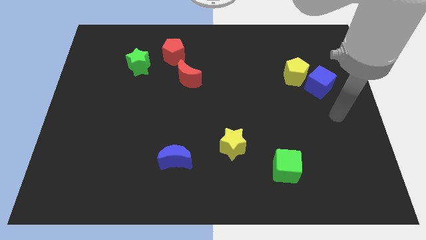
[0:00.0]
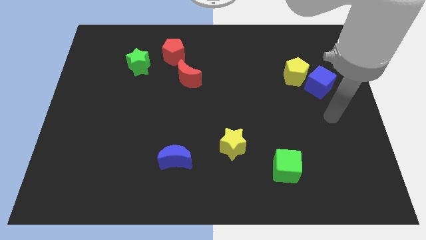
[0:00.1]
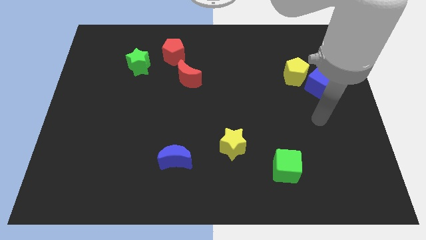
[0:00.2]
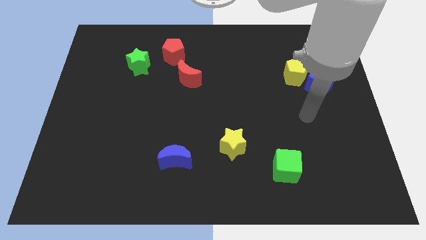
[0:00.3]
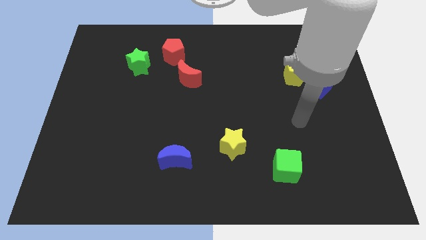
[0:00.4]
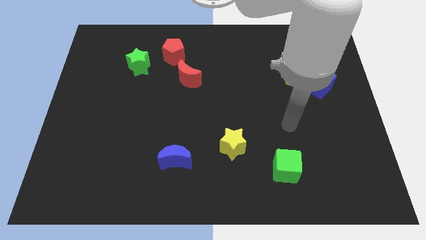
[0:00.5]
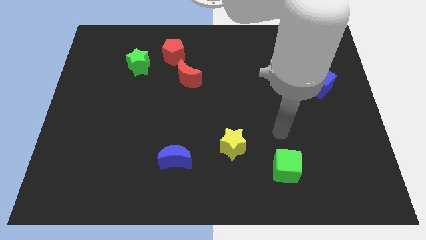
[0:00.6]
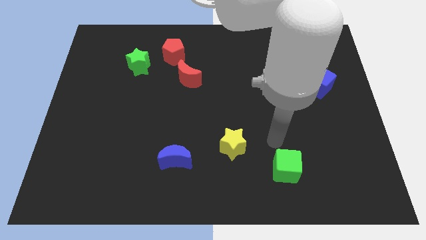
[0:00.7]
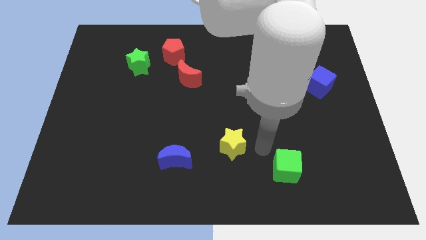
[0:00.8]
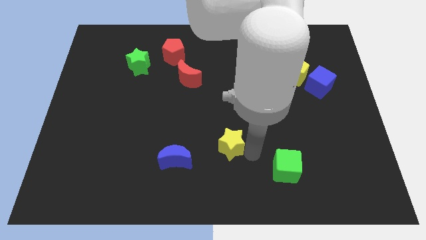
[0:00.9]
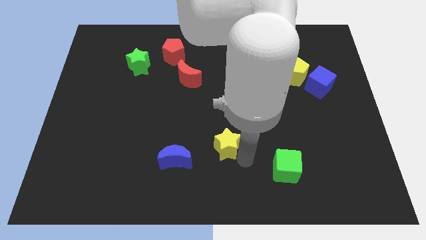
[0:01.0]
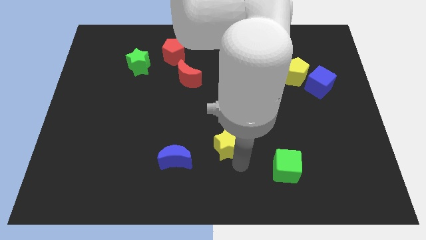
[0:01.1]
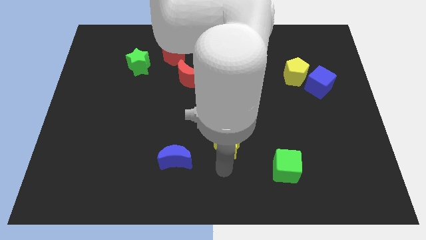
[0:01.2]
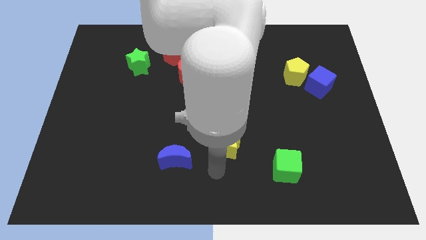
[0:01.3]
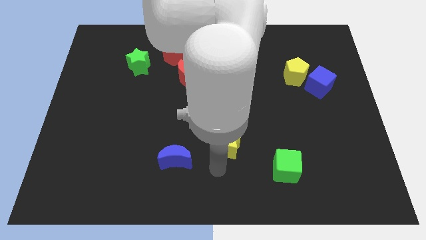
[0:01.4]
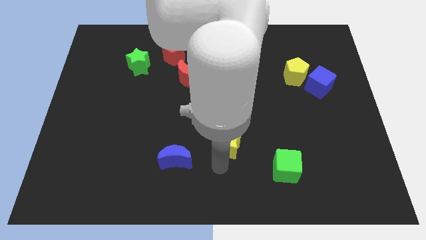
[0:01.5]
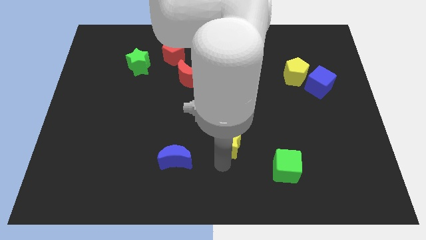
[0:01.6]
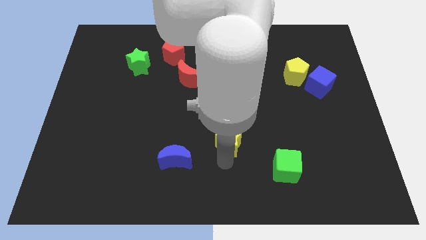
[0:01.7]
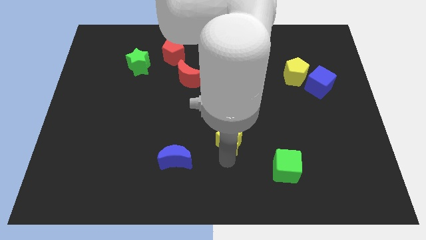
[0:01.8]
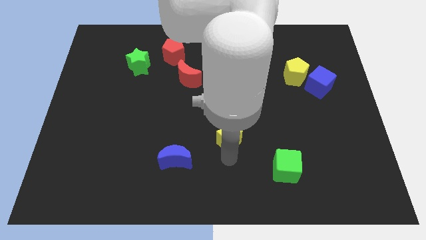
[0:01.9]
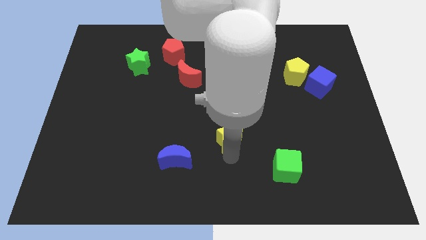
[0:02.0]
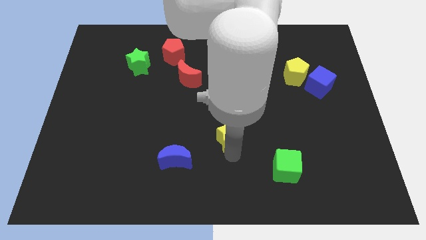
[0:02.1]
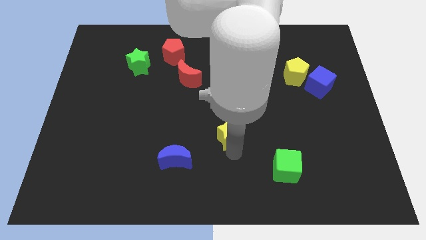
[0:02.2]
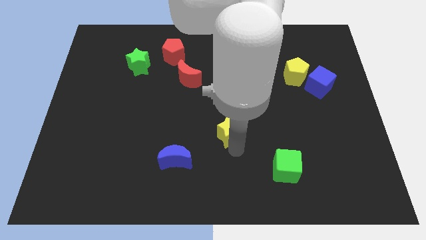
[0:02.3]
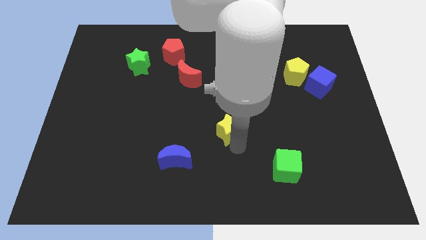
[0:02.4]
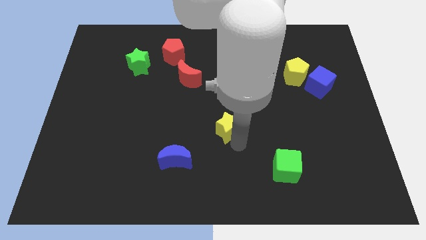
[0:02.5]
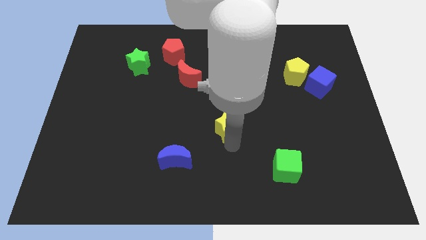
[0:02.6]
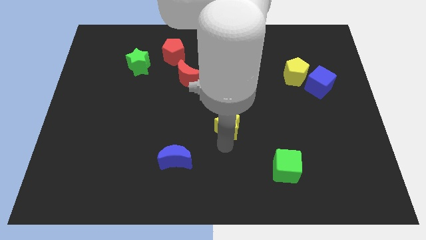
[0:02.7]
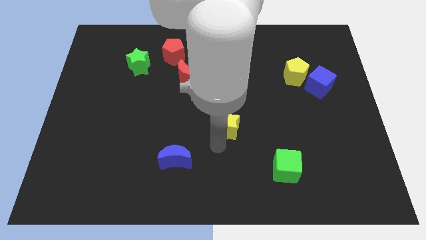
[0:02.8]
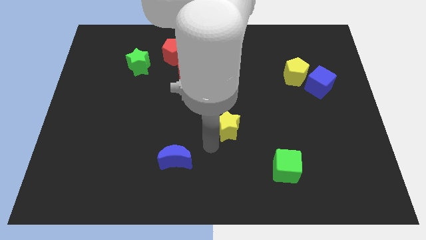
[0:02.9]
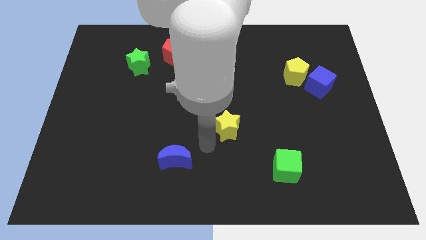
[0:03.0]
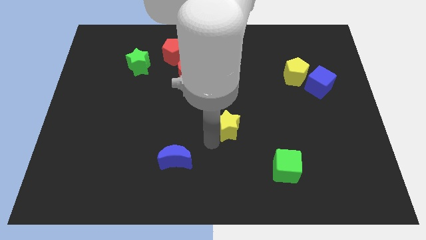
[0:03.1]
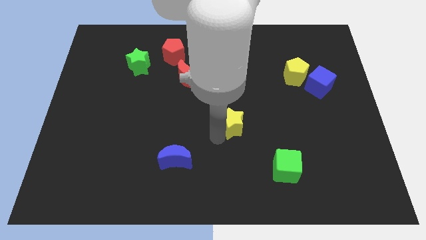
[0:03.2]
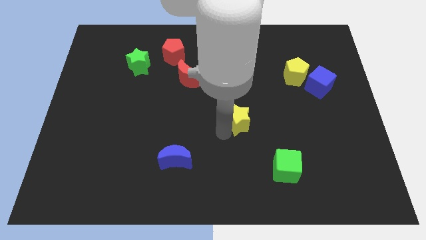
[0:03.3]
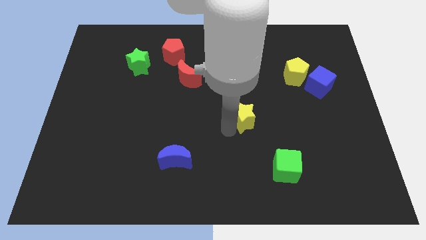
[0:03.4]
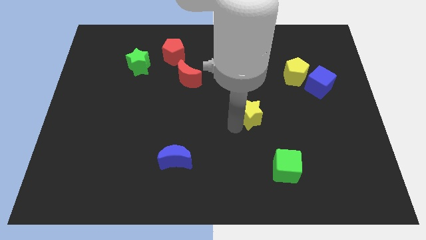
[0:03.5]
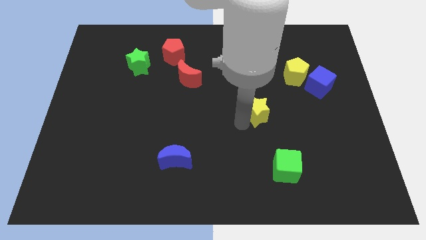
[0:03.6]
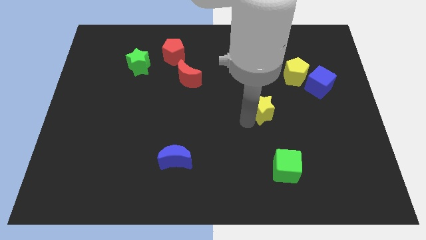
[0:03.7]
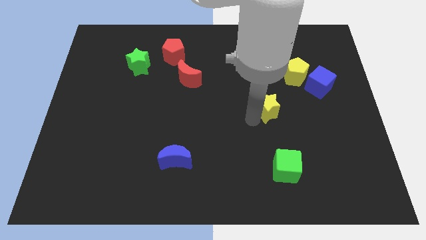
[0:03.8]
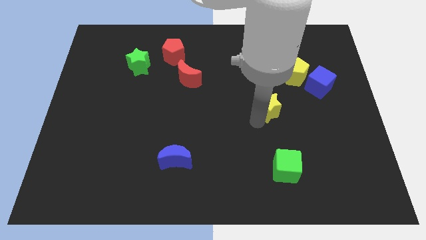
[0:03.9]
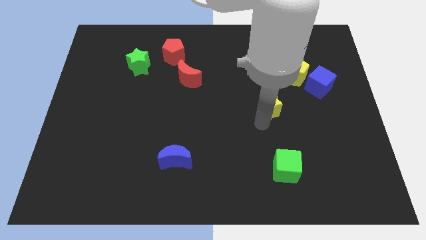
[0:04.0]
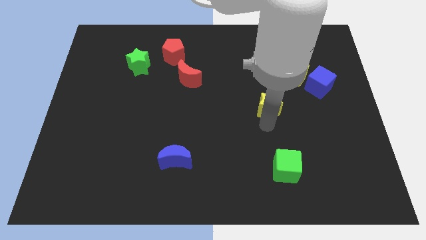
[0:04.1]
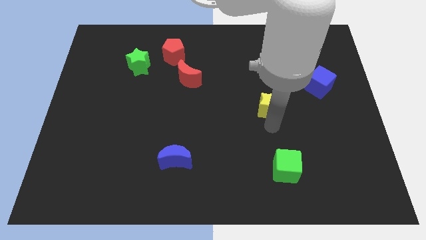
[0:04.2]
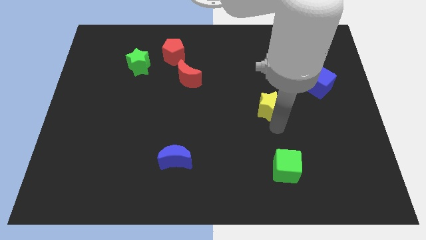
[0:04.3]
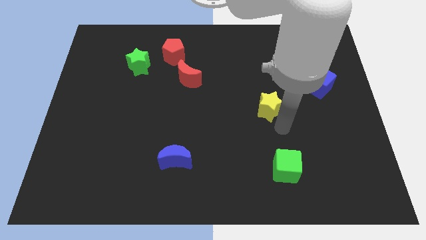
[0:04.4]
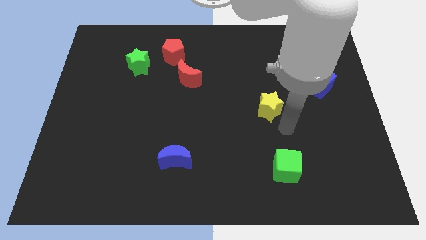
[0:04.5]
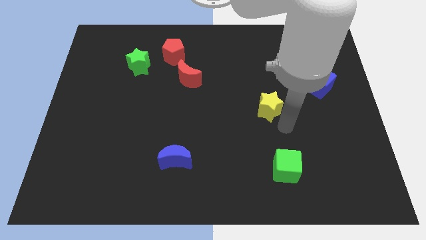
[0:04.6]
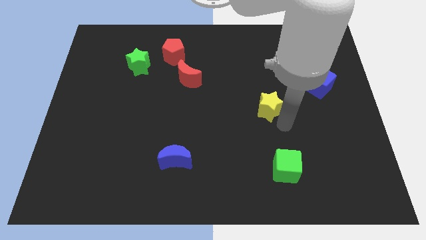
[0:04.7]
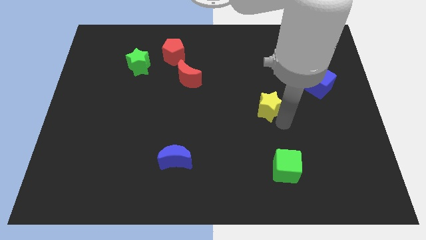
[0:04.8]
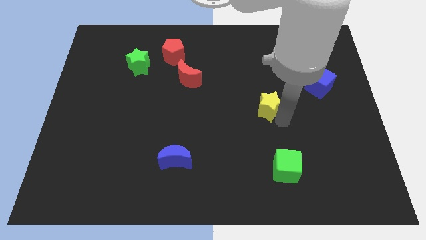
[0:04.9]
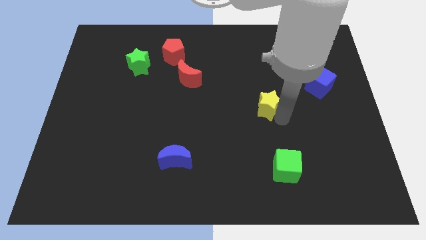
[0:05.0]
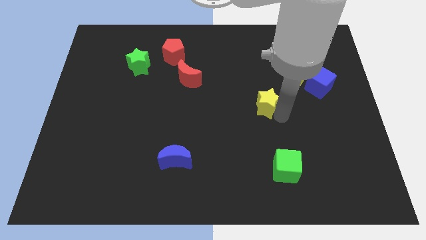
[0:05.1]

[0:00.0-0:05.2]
move the yellow star to the bottom left of the yellow pentagon

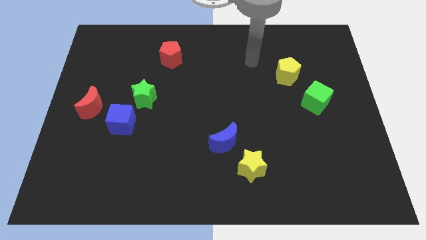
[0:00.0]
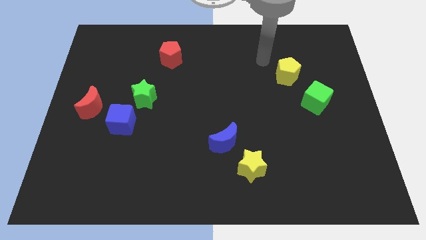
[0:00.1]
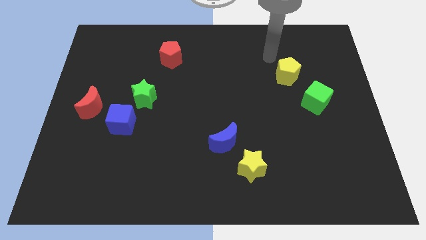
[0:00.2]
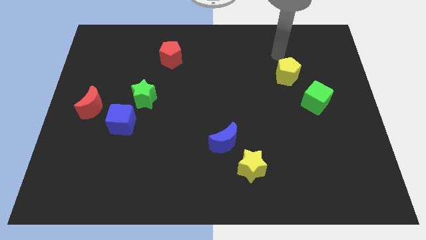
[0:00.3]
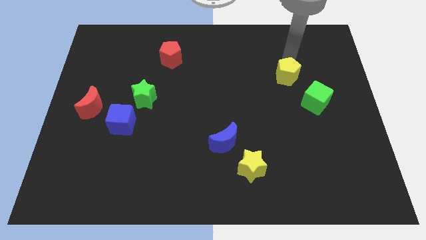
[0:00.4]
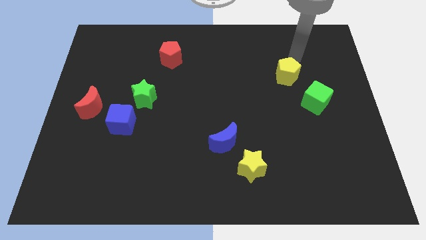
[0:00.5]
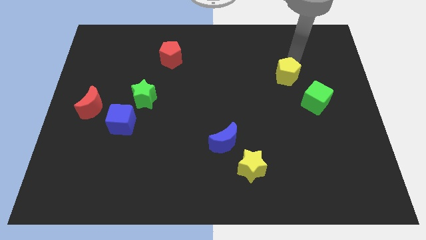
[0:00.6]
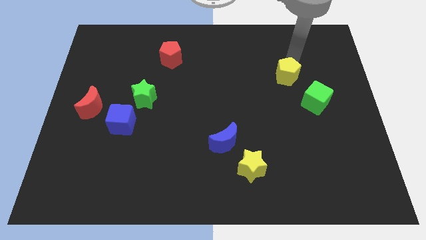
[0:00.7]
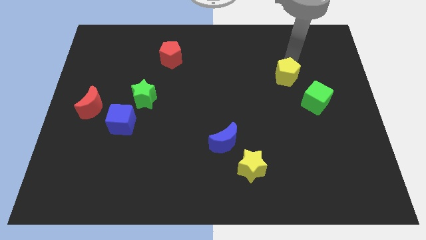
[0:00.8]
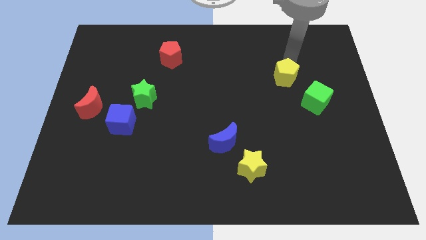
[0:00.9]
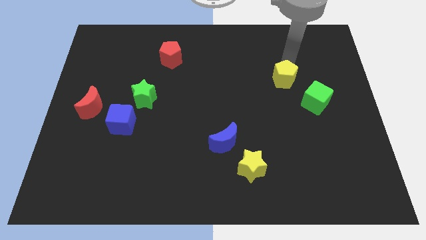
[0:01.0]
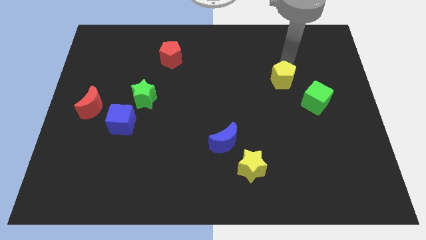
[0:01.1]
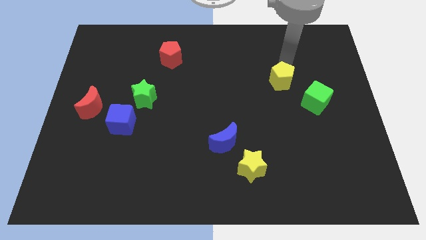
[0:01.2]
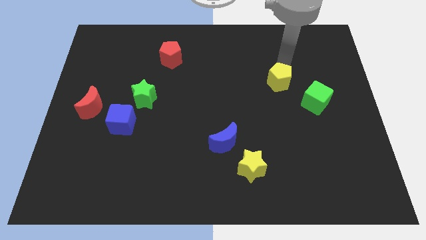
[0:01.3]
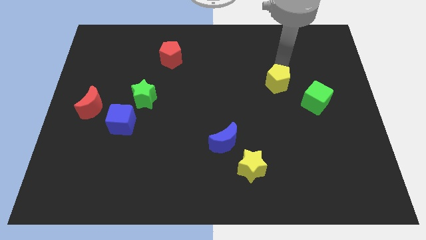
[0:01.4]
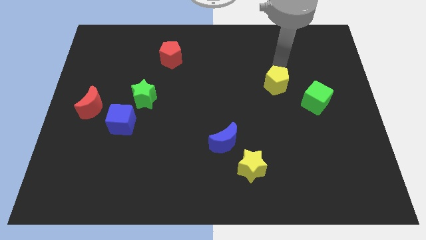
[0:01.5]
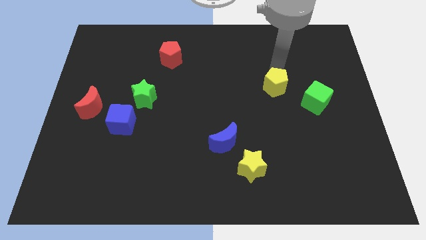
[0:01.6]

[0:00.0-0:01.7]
slide the yellow pentagon just left of the green cube

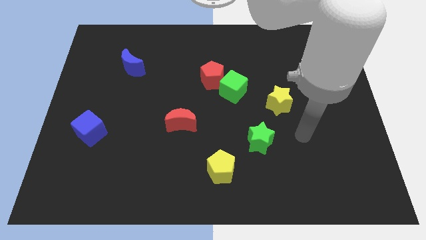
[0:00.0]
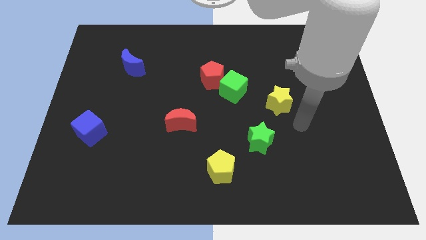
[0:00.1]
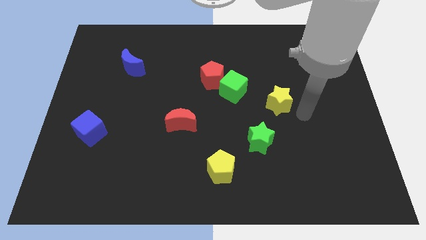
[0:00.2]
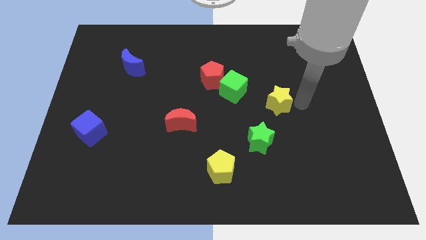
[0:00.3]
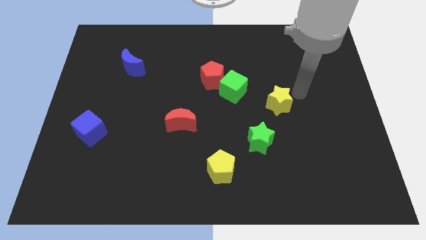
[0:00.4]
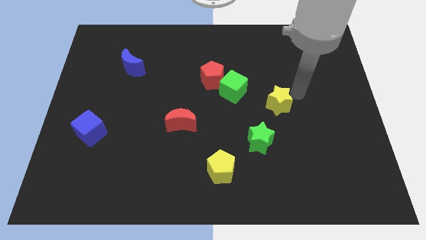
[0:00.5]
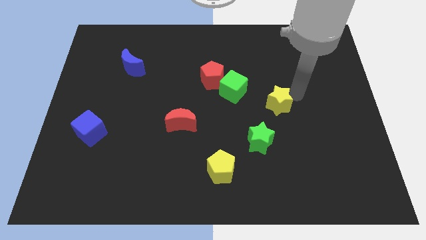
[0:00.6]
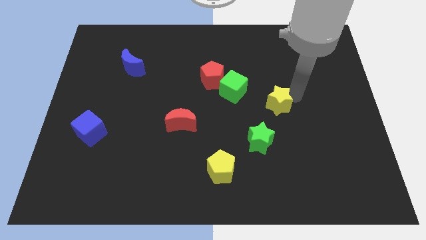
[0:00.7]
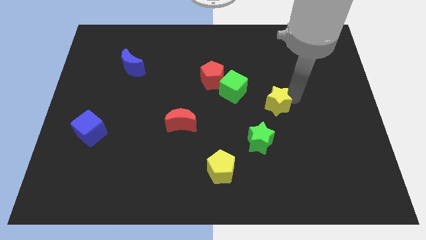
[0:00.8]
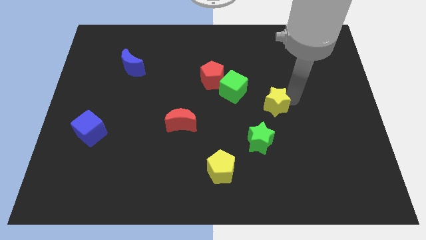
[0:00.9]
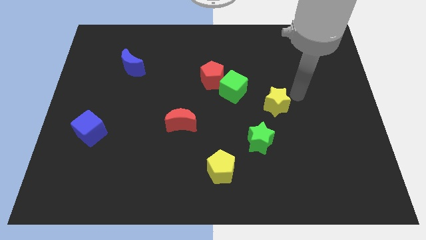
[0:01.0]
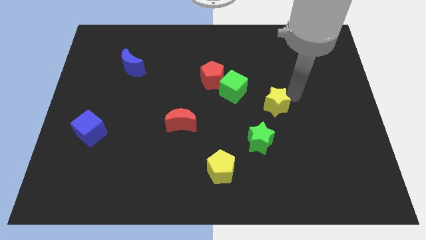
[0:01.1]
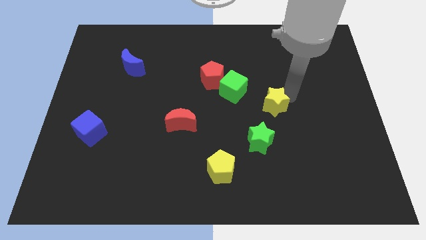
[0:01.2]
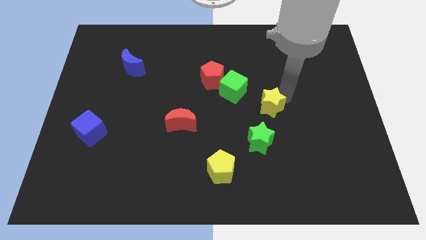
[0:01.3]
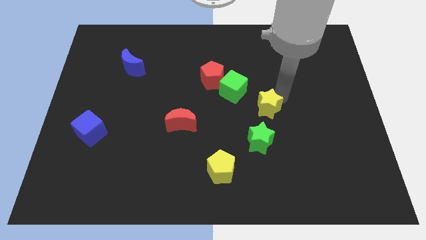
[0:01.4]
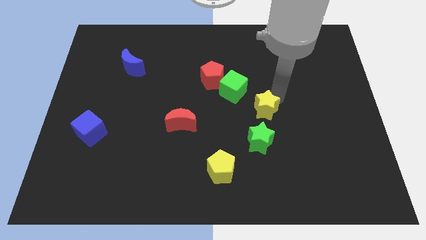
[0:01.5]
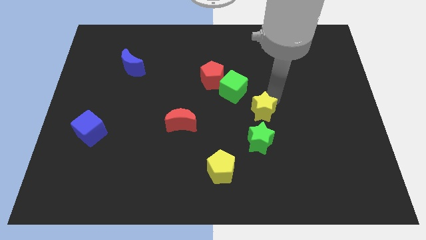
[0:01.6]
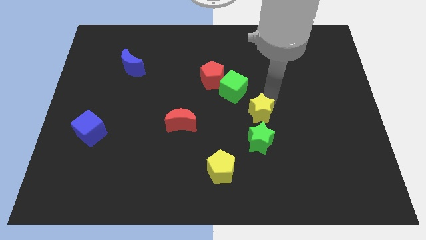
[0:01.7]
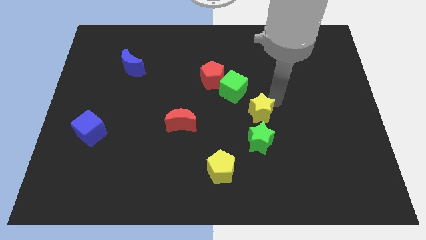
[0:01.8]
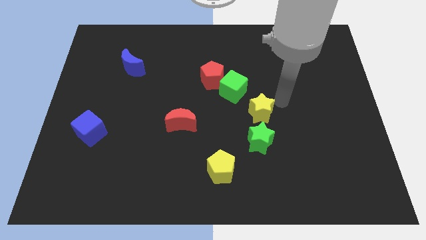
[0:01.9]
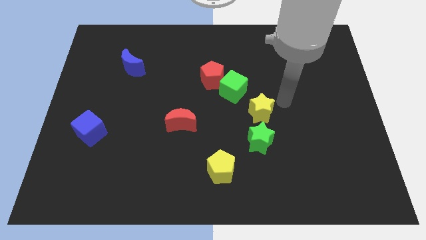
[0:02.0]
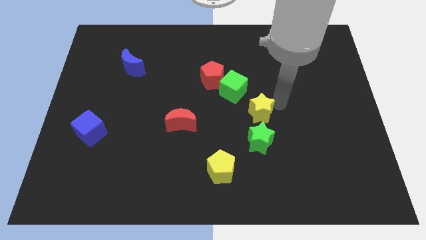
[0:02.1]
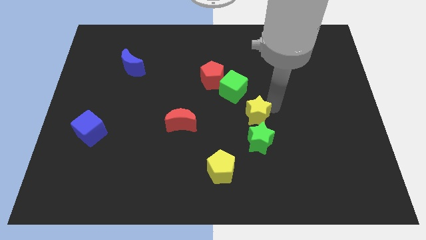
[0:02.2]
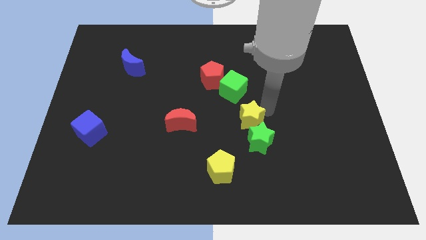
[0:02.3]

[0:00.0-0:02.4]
slide the yellow star to the bottom of the green cube
